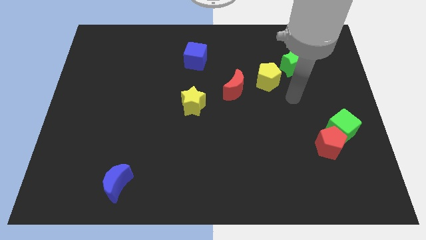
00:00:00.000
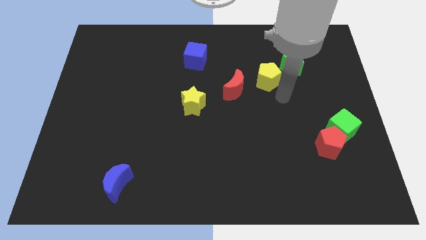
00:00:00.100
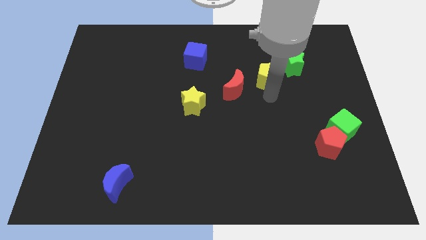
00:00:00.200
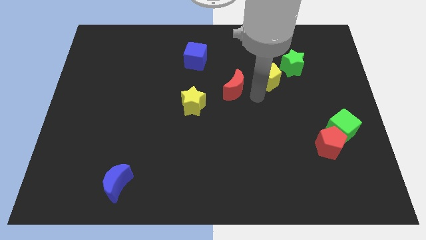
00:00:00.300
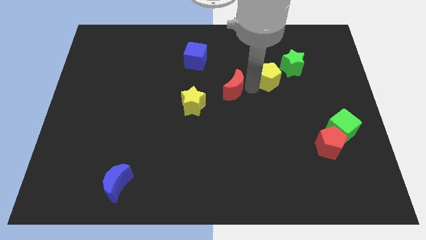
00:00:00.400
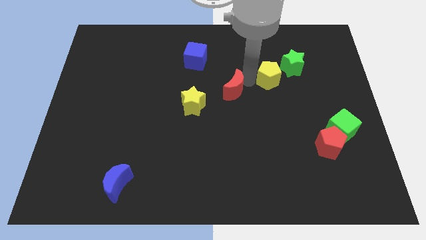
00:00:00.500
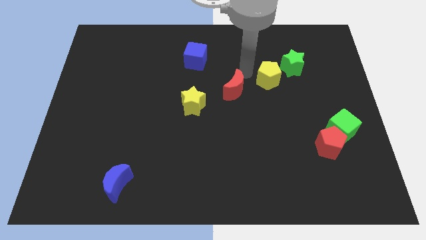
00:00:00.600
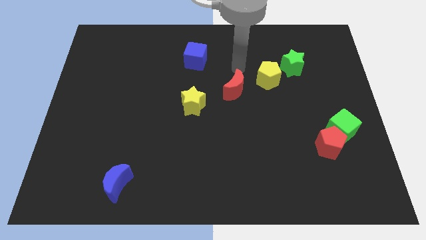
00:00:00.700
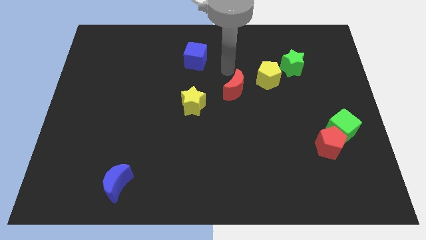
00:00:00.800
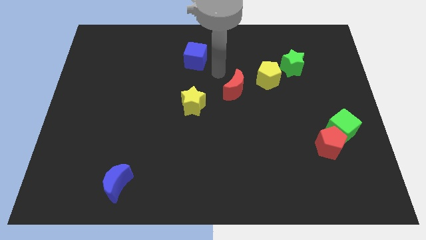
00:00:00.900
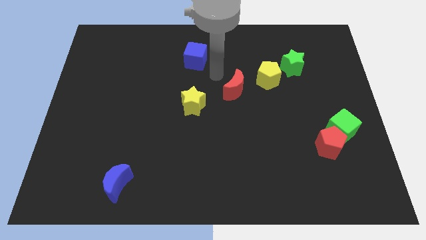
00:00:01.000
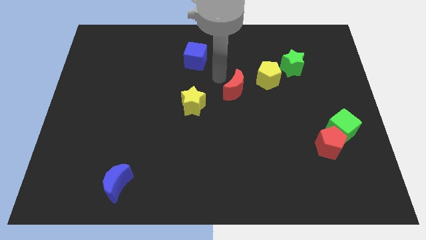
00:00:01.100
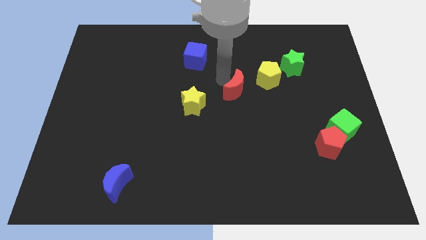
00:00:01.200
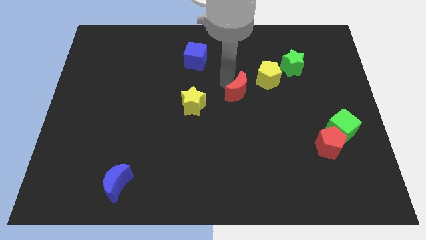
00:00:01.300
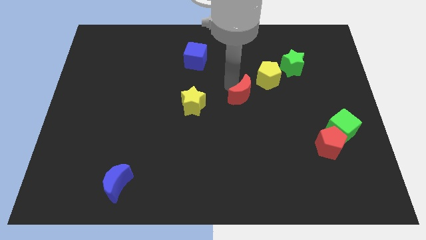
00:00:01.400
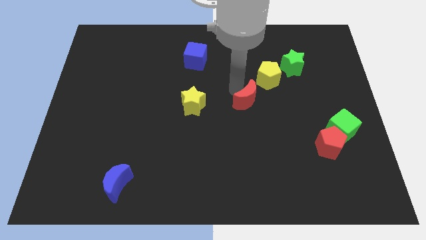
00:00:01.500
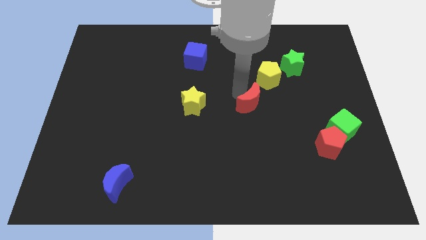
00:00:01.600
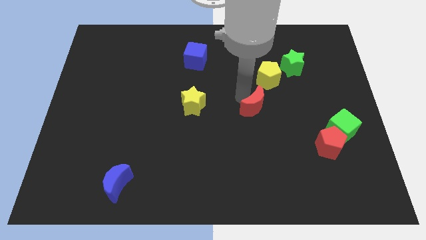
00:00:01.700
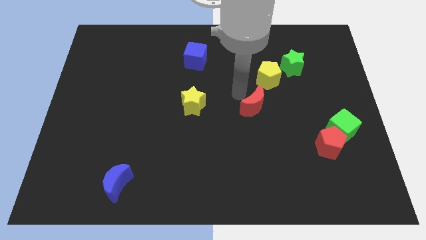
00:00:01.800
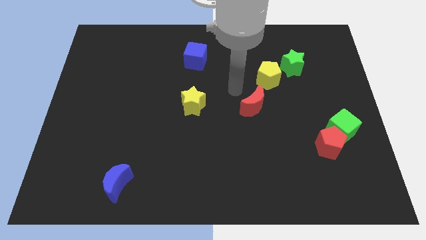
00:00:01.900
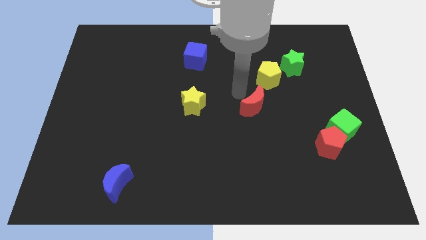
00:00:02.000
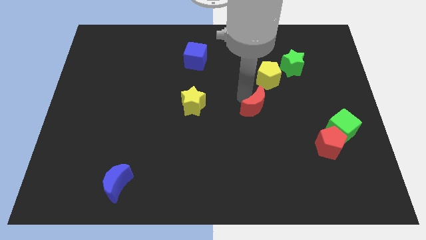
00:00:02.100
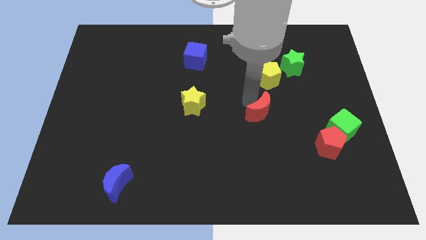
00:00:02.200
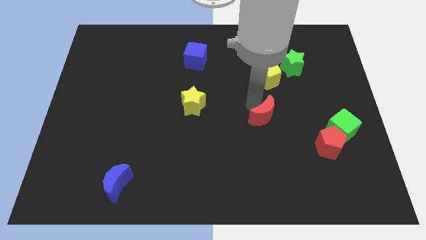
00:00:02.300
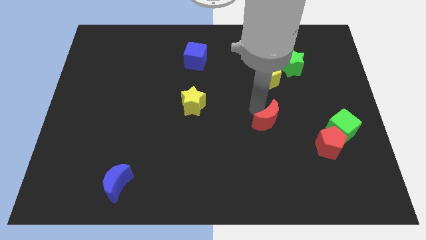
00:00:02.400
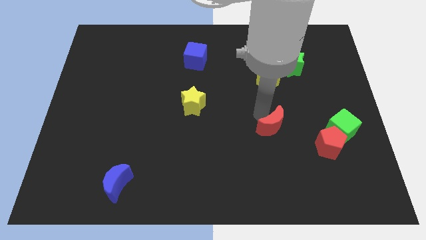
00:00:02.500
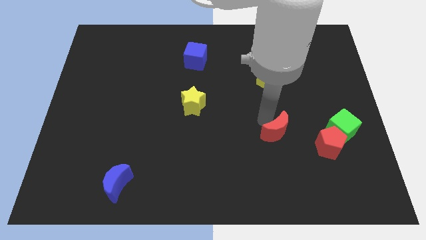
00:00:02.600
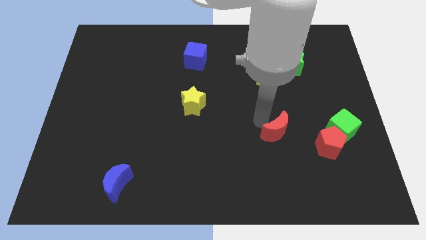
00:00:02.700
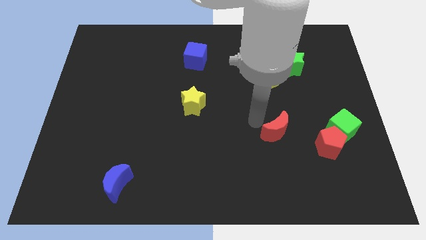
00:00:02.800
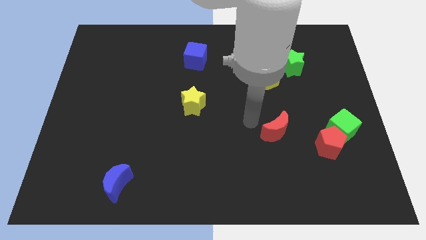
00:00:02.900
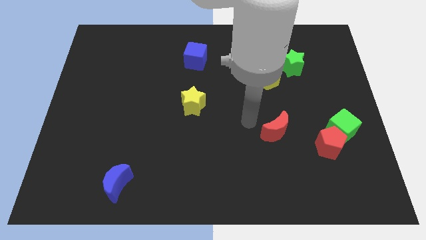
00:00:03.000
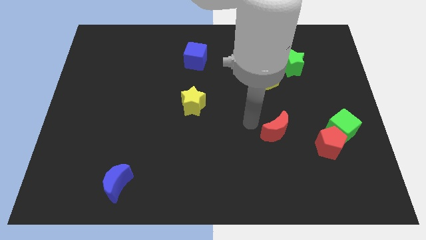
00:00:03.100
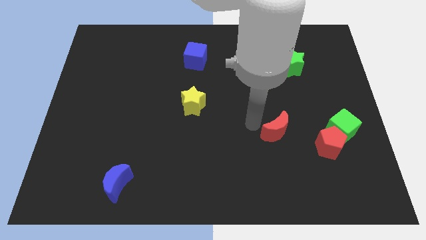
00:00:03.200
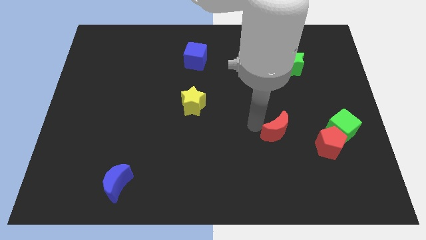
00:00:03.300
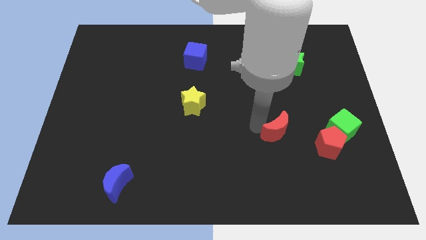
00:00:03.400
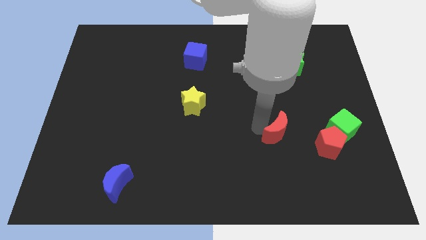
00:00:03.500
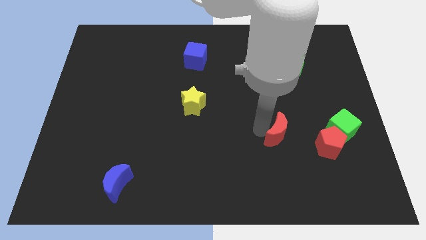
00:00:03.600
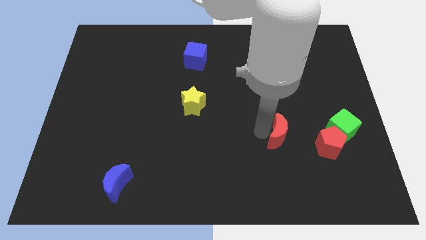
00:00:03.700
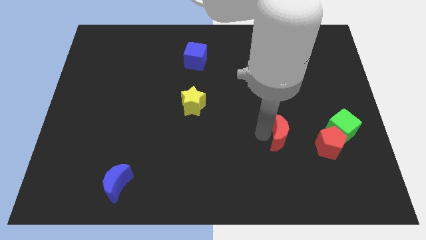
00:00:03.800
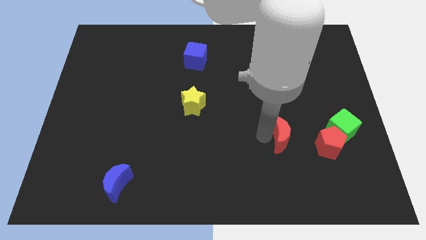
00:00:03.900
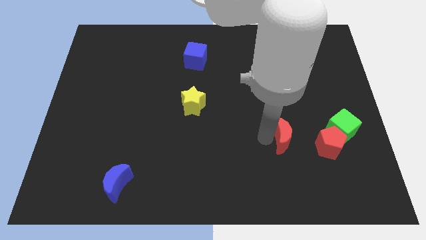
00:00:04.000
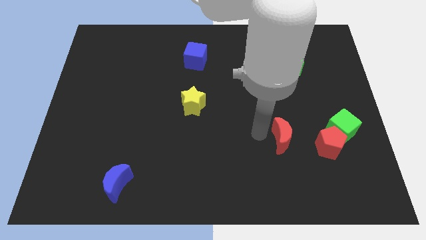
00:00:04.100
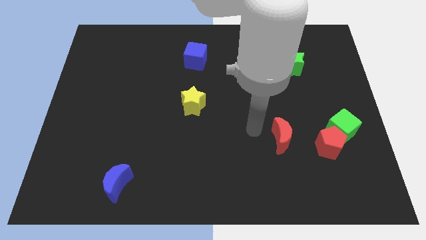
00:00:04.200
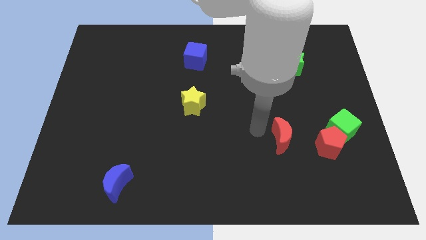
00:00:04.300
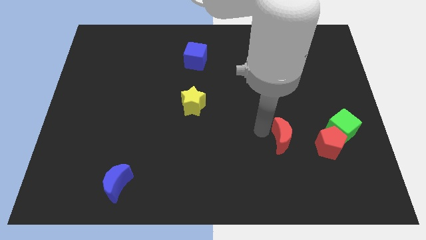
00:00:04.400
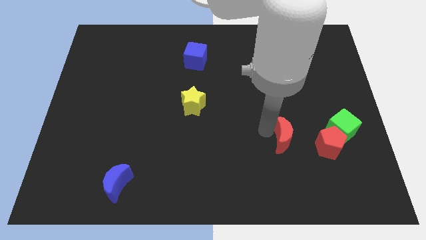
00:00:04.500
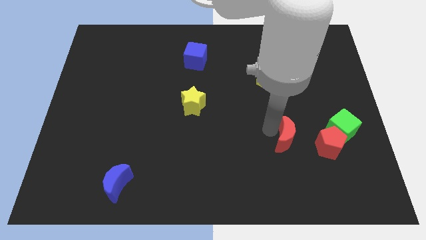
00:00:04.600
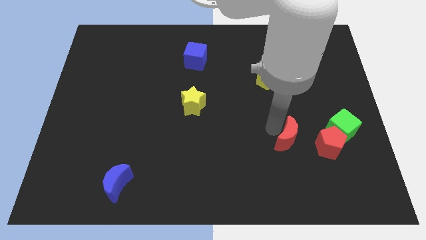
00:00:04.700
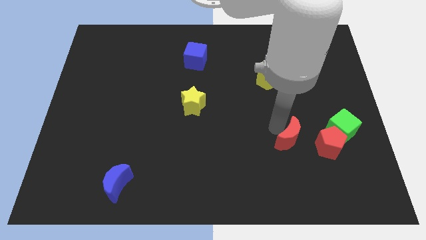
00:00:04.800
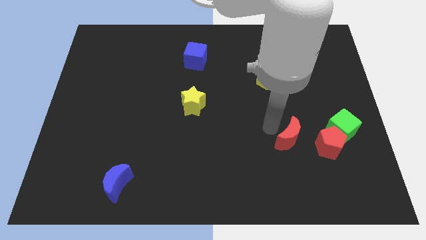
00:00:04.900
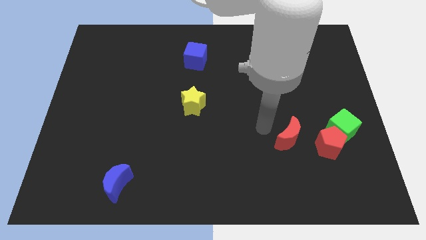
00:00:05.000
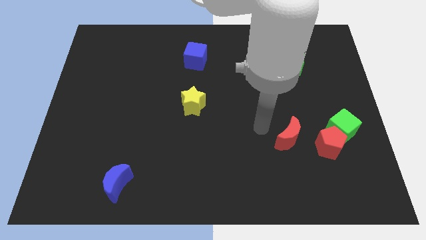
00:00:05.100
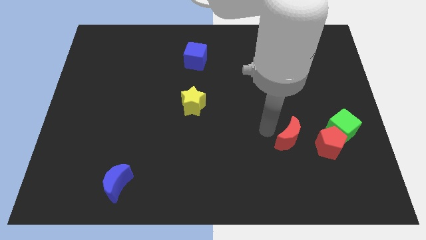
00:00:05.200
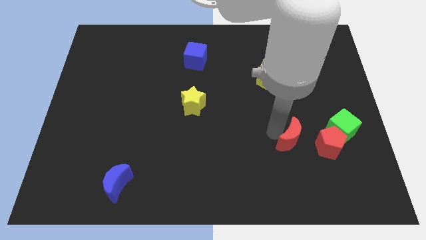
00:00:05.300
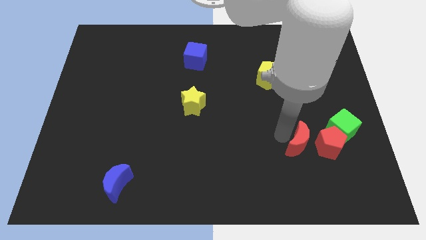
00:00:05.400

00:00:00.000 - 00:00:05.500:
push the red moon to the bottom left of the green cube

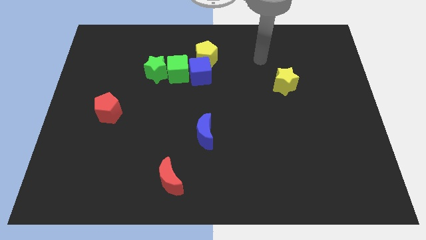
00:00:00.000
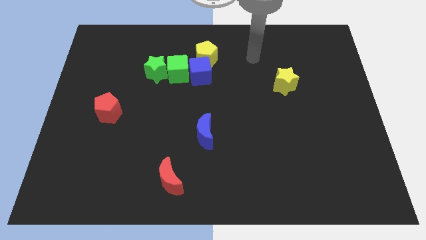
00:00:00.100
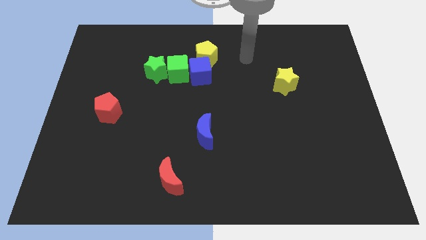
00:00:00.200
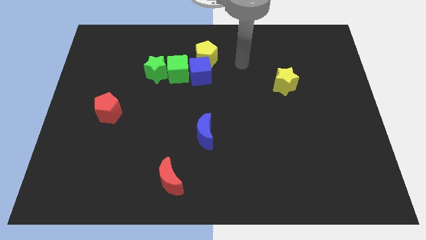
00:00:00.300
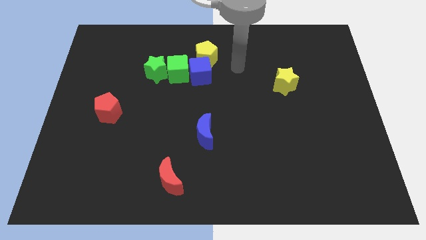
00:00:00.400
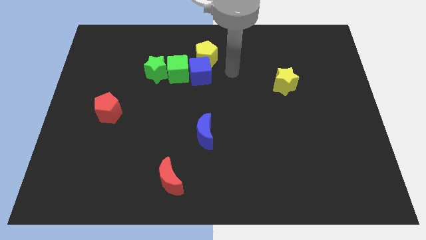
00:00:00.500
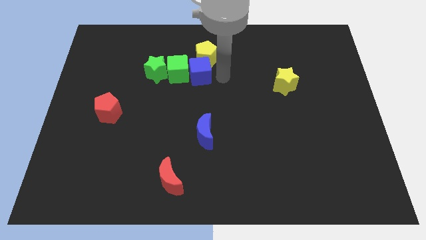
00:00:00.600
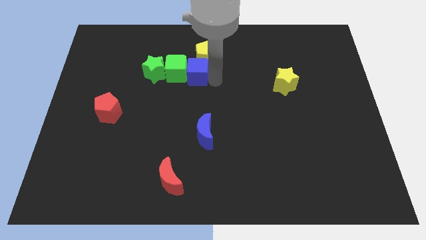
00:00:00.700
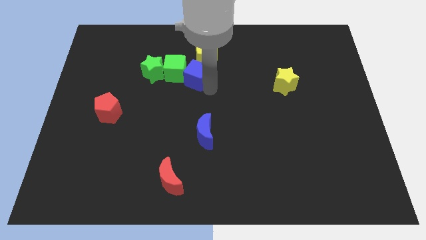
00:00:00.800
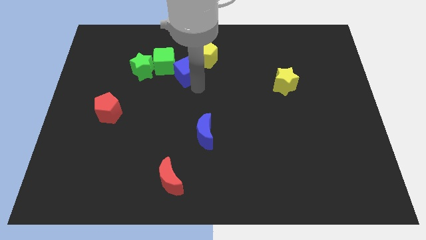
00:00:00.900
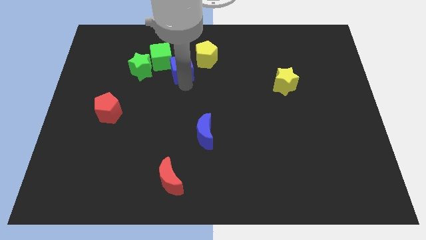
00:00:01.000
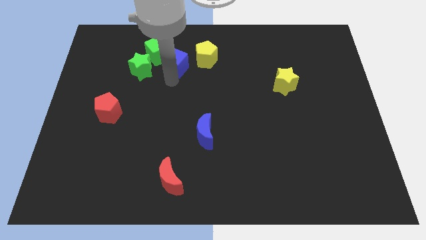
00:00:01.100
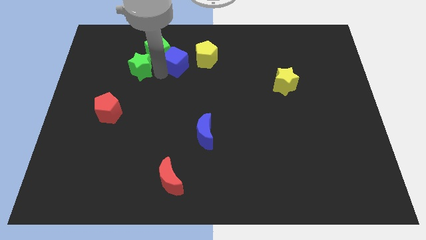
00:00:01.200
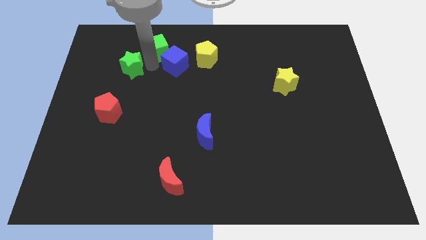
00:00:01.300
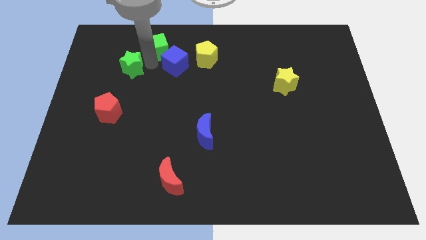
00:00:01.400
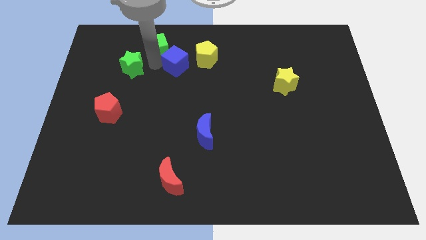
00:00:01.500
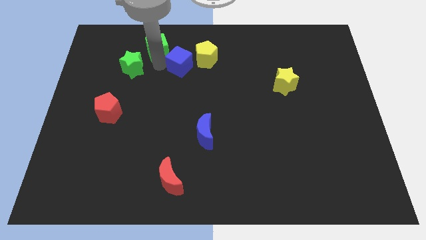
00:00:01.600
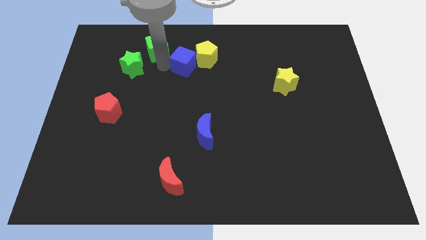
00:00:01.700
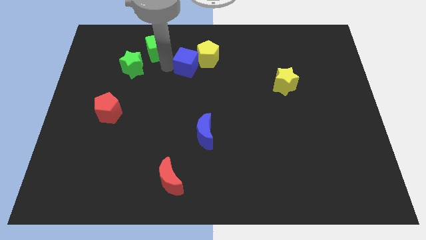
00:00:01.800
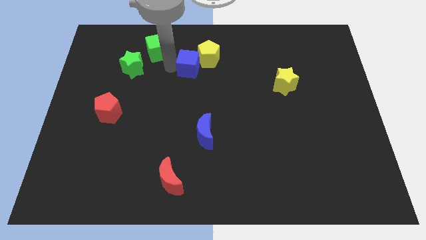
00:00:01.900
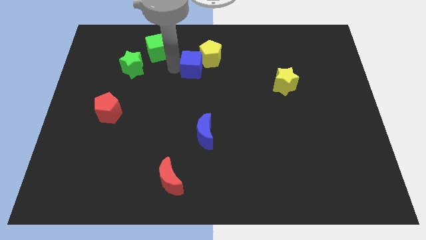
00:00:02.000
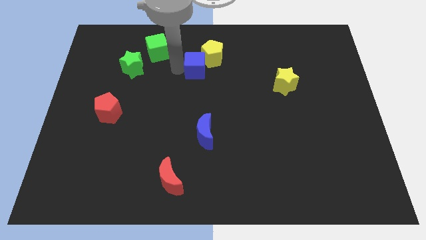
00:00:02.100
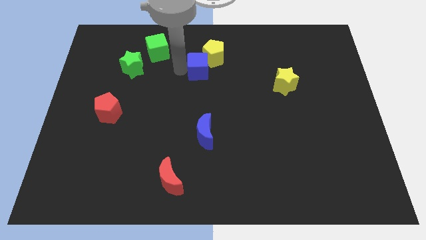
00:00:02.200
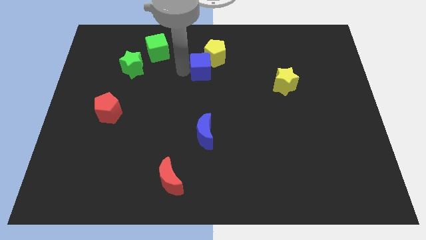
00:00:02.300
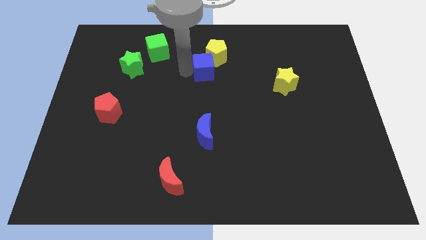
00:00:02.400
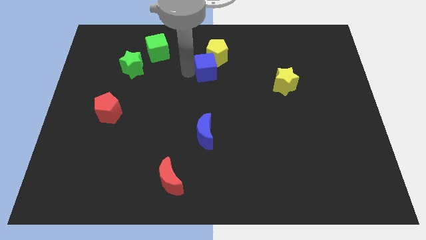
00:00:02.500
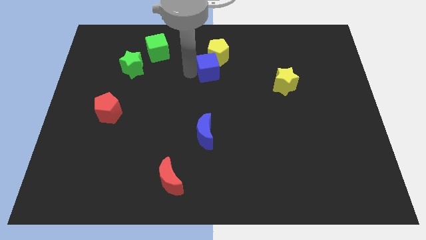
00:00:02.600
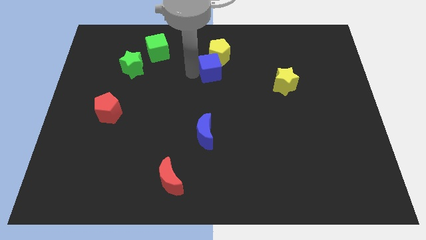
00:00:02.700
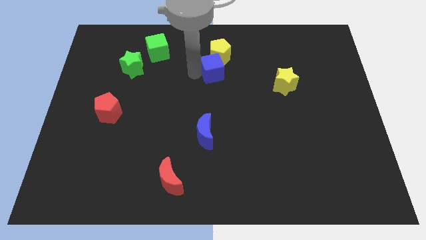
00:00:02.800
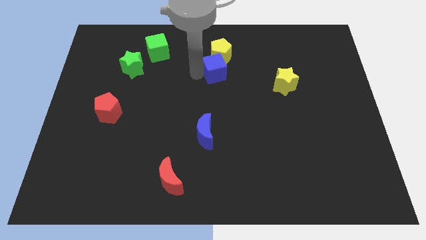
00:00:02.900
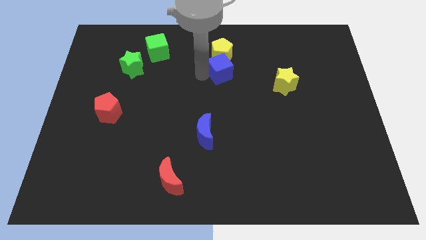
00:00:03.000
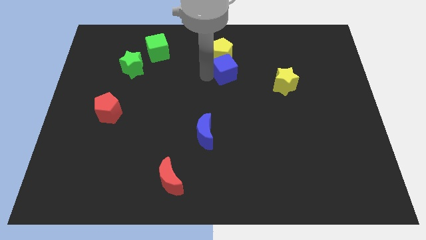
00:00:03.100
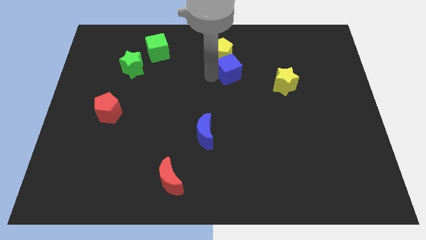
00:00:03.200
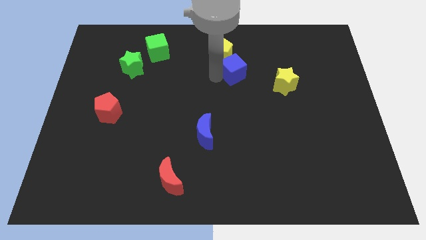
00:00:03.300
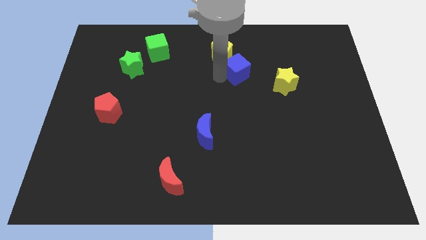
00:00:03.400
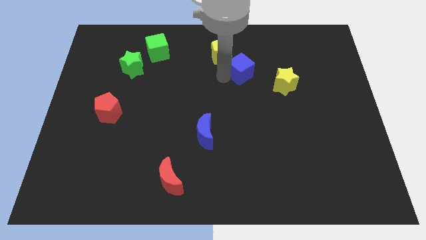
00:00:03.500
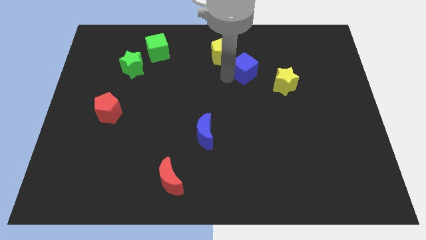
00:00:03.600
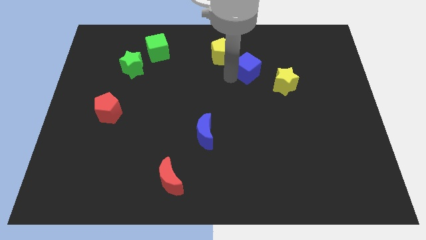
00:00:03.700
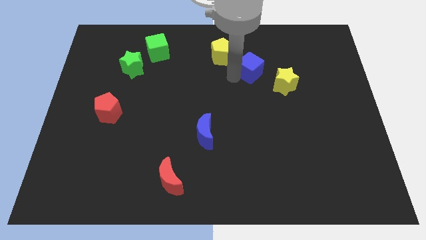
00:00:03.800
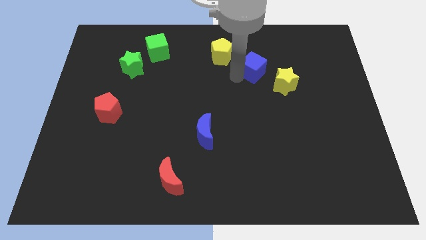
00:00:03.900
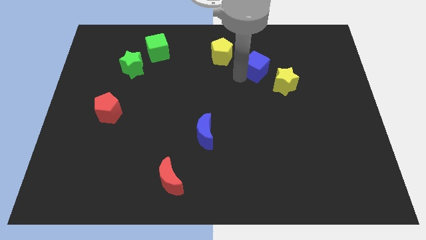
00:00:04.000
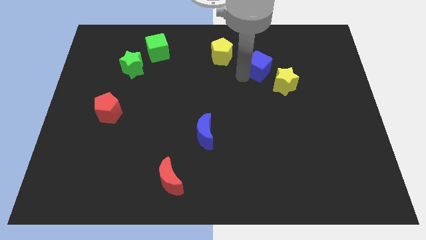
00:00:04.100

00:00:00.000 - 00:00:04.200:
put the blue cube right of the yellow pentagon
